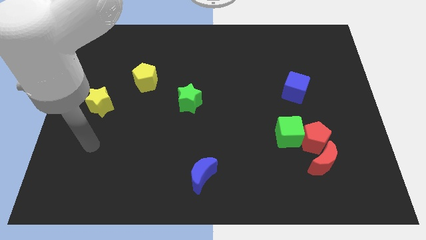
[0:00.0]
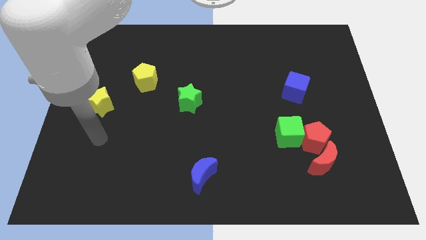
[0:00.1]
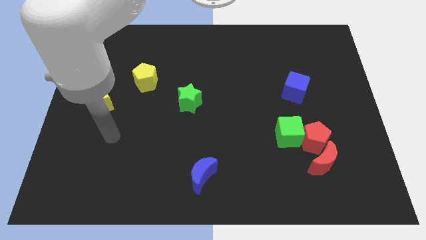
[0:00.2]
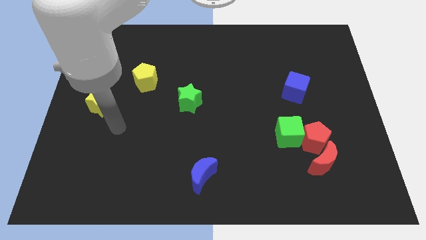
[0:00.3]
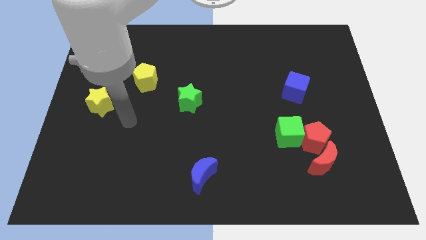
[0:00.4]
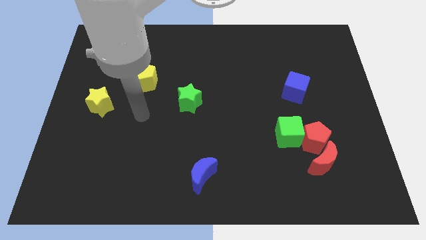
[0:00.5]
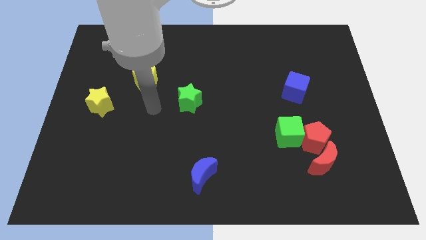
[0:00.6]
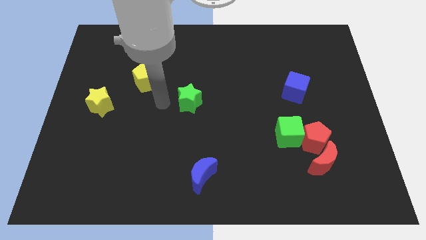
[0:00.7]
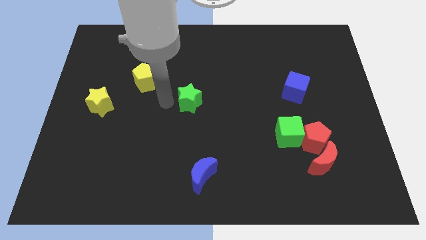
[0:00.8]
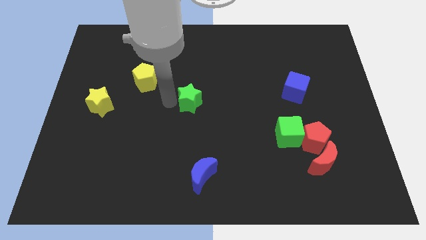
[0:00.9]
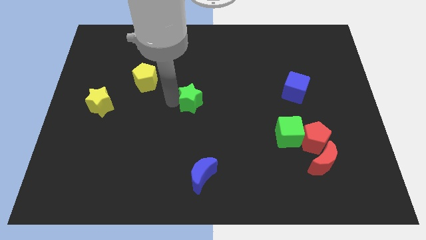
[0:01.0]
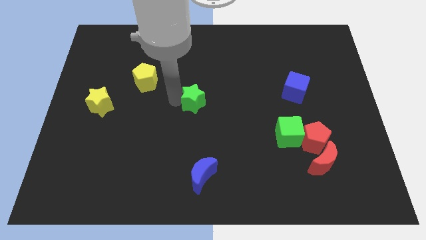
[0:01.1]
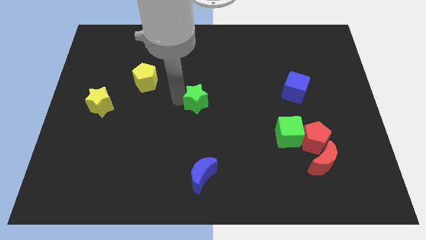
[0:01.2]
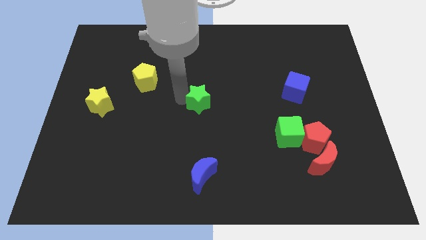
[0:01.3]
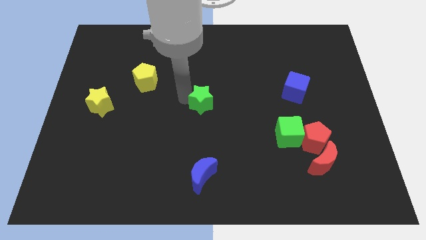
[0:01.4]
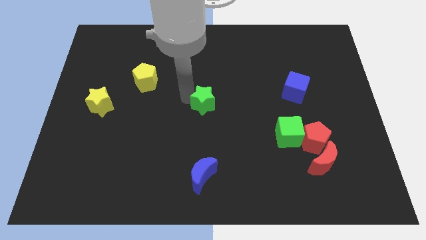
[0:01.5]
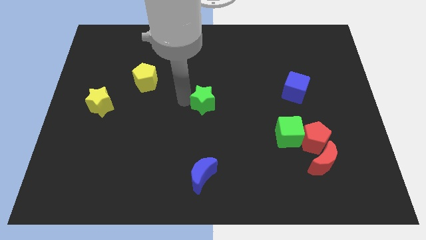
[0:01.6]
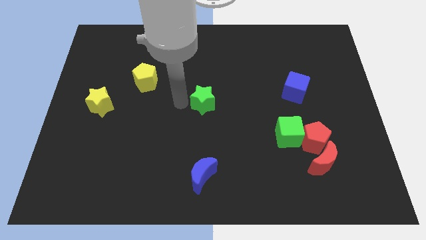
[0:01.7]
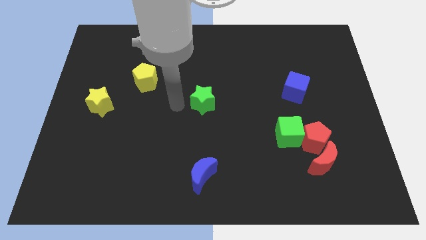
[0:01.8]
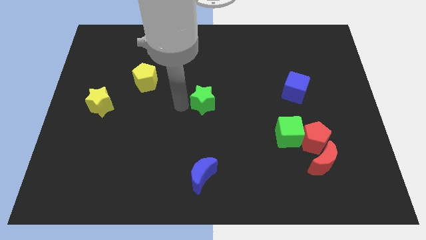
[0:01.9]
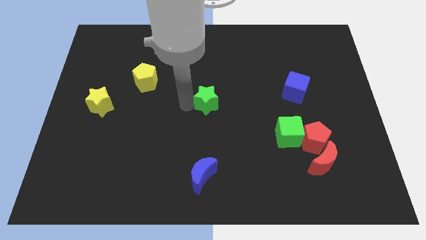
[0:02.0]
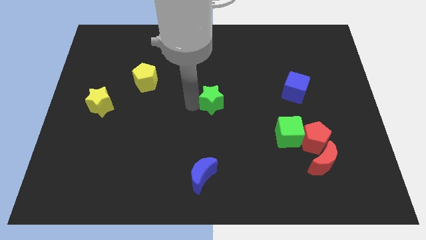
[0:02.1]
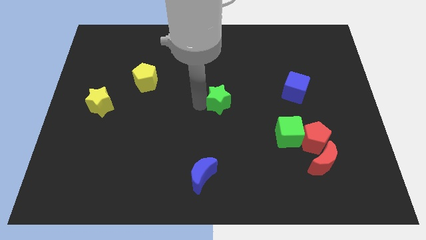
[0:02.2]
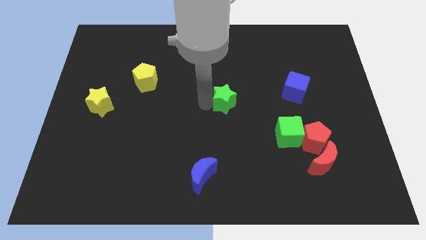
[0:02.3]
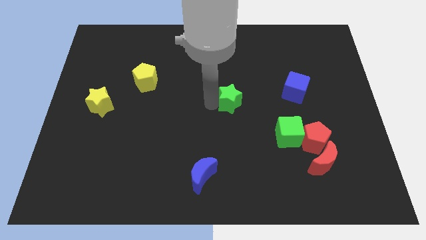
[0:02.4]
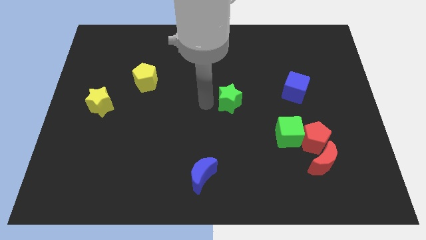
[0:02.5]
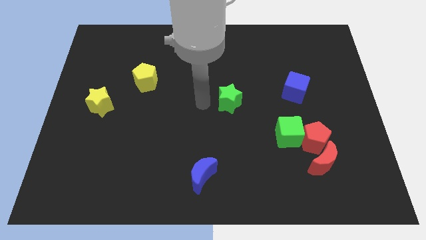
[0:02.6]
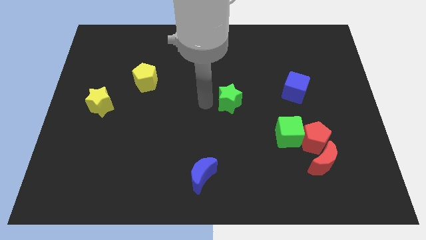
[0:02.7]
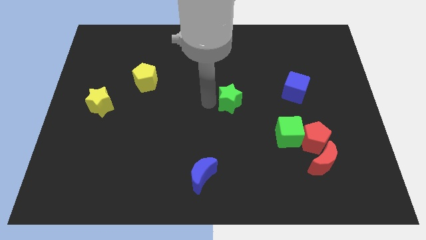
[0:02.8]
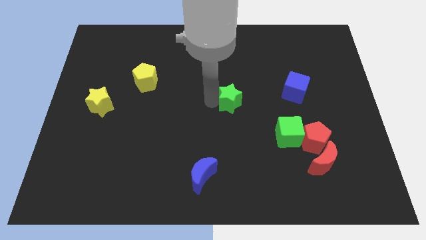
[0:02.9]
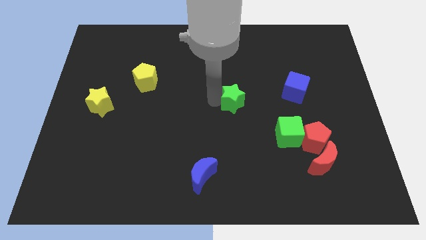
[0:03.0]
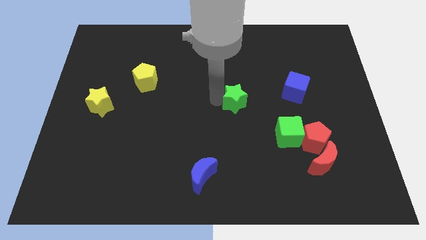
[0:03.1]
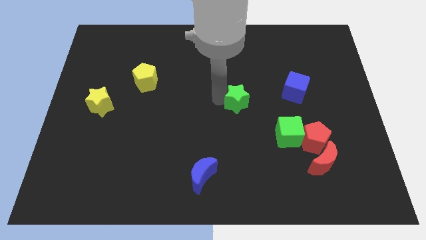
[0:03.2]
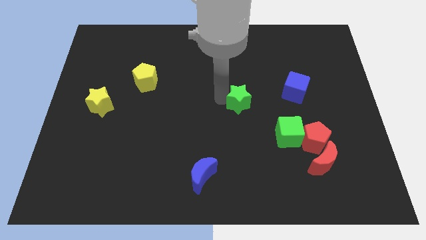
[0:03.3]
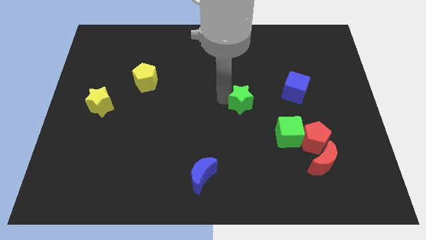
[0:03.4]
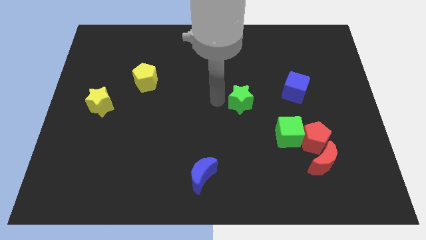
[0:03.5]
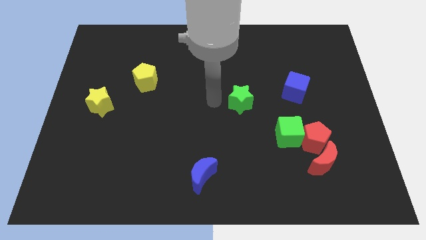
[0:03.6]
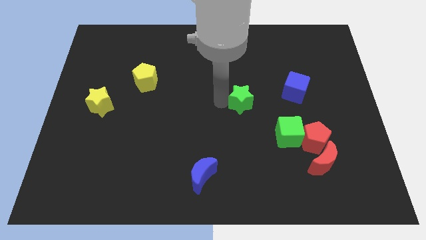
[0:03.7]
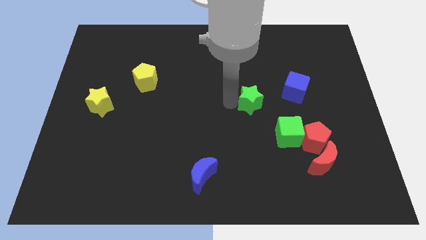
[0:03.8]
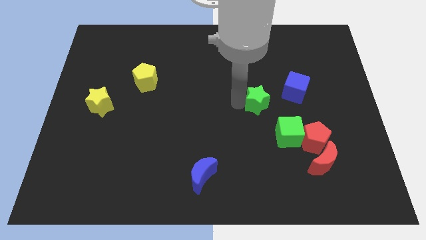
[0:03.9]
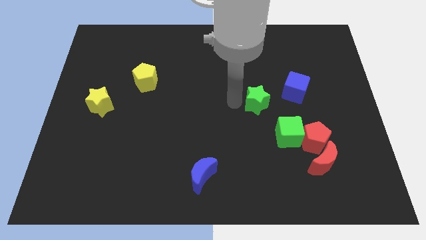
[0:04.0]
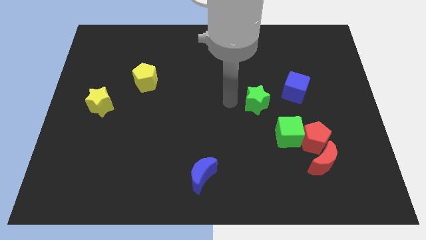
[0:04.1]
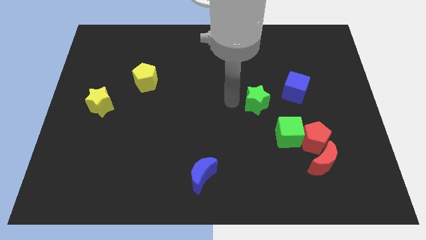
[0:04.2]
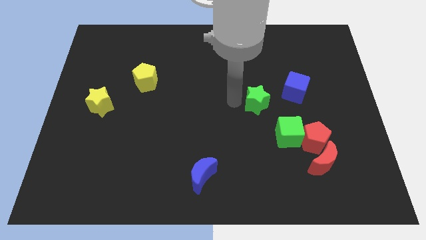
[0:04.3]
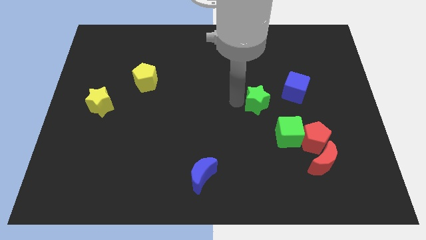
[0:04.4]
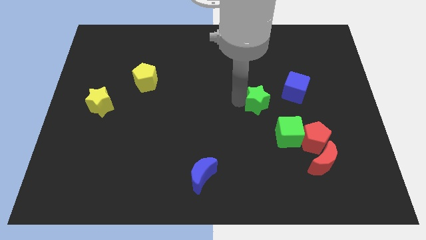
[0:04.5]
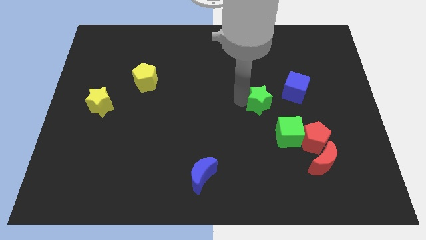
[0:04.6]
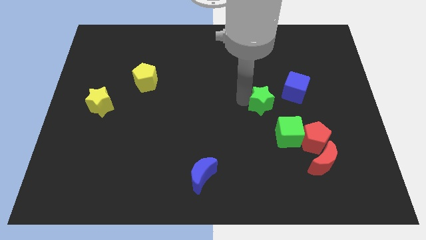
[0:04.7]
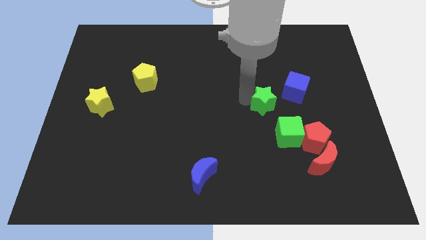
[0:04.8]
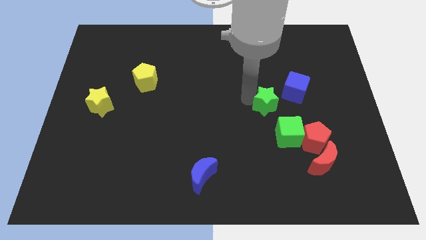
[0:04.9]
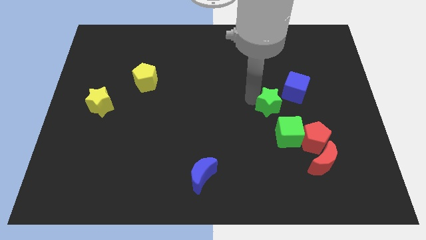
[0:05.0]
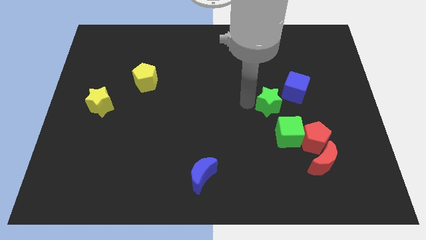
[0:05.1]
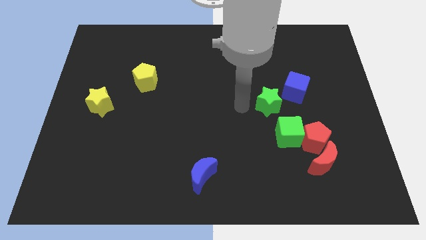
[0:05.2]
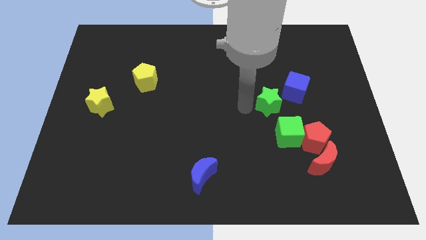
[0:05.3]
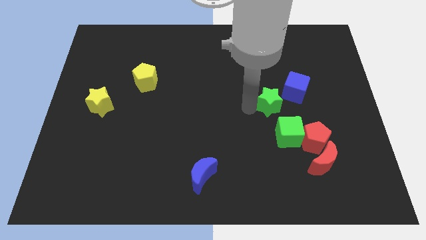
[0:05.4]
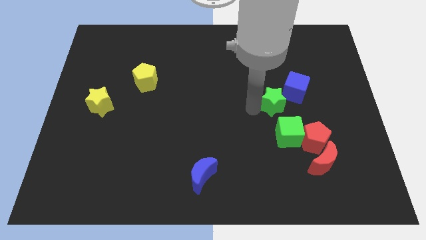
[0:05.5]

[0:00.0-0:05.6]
slide the green star to the right

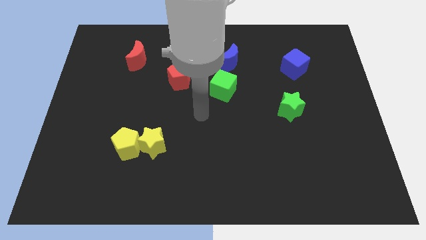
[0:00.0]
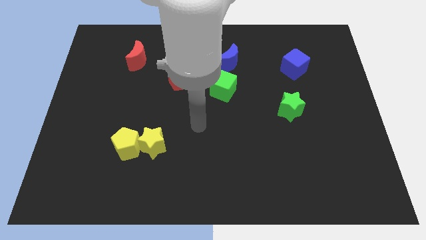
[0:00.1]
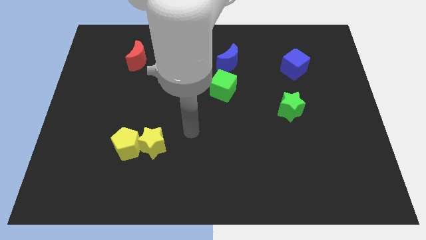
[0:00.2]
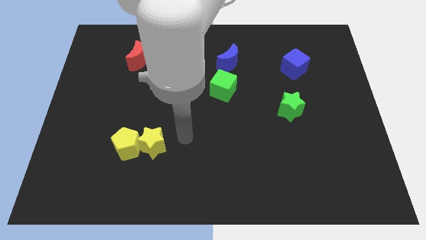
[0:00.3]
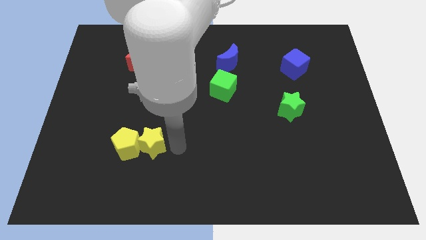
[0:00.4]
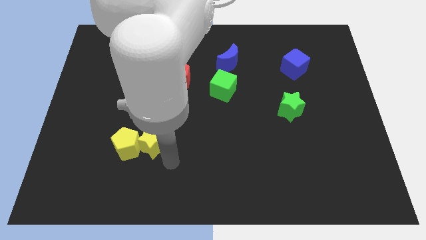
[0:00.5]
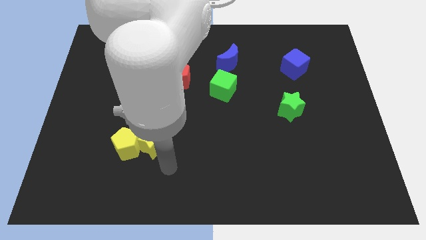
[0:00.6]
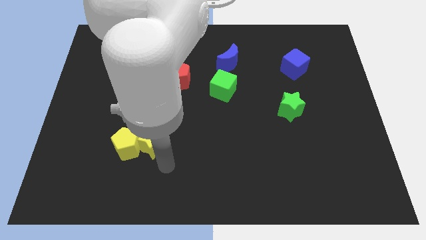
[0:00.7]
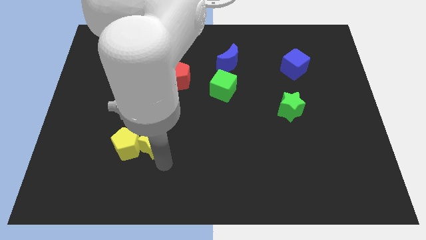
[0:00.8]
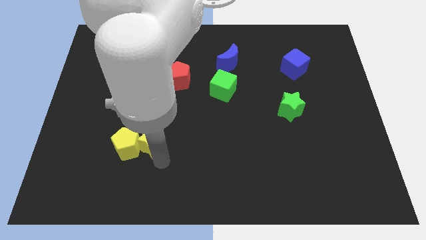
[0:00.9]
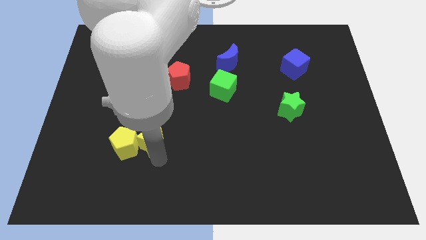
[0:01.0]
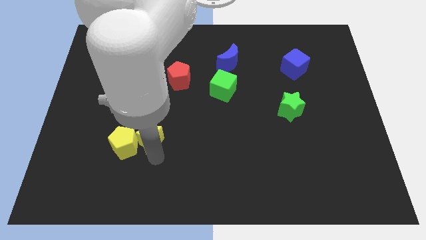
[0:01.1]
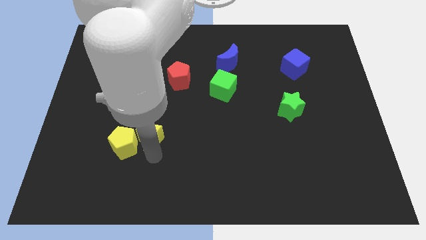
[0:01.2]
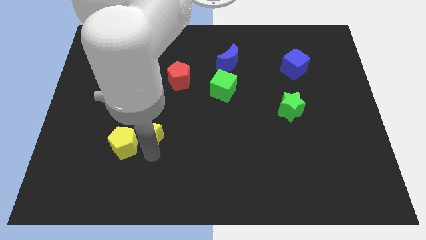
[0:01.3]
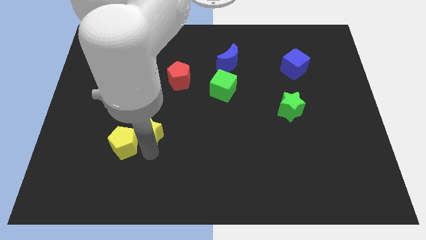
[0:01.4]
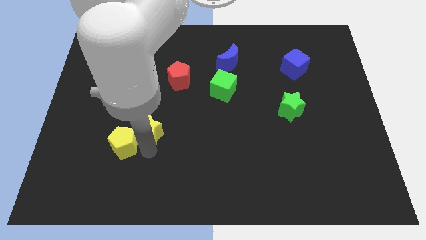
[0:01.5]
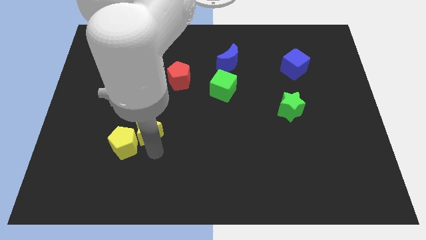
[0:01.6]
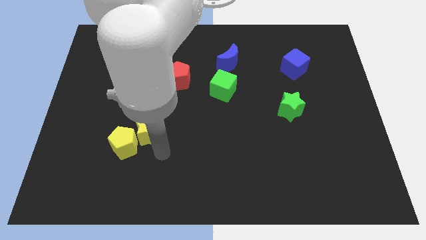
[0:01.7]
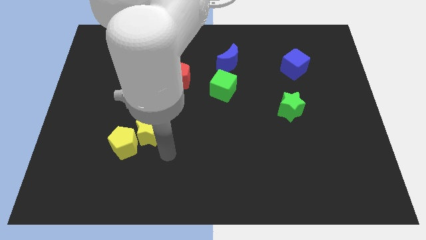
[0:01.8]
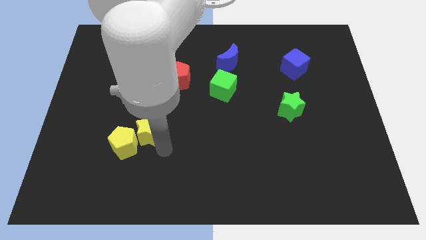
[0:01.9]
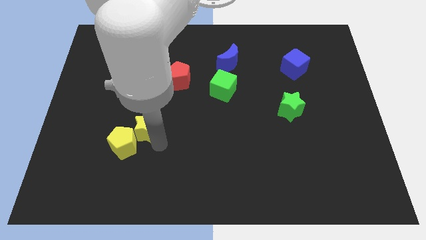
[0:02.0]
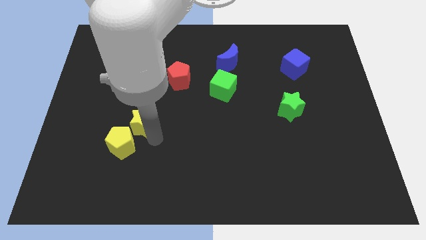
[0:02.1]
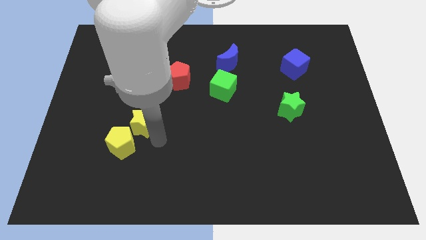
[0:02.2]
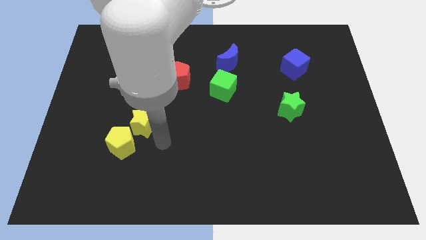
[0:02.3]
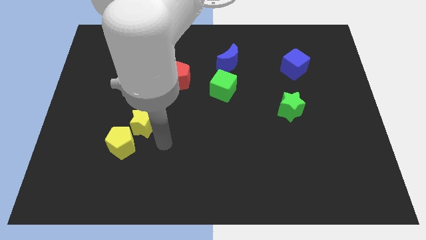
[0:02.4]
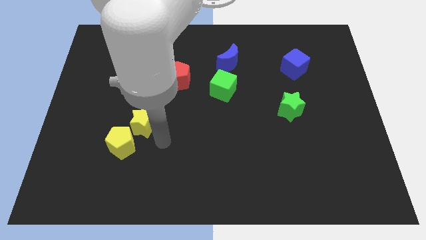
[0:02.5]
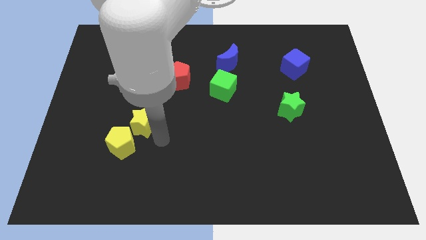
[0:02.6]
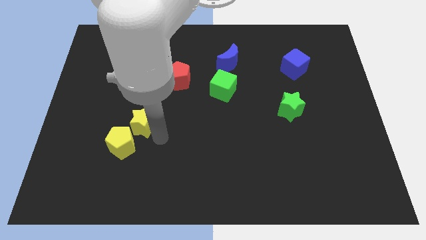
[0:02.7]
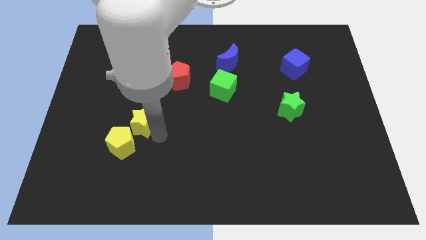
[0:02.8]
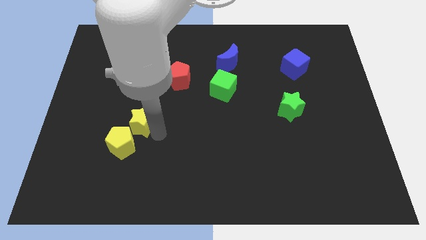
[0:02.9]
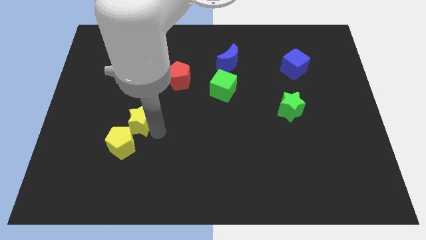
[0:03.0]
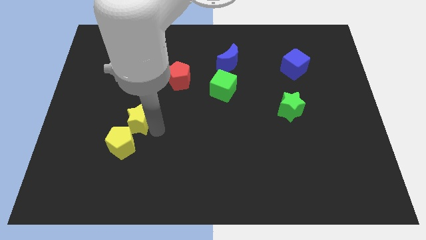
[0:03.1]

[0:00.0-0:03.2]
move the yellow star slightly diagonally up and to the left
